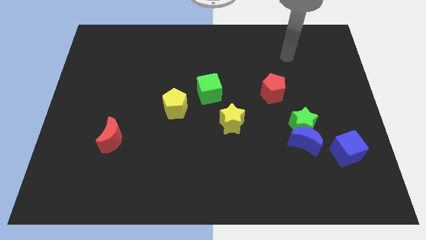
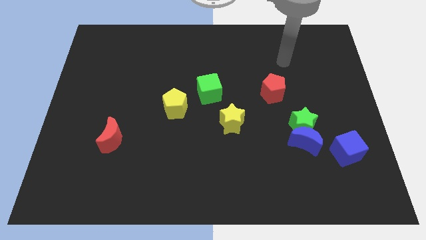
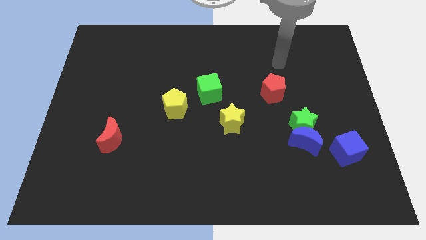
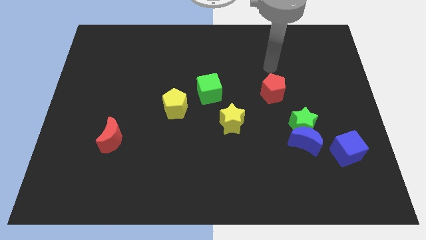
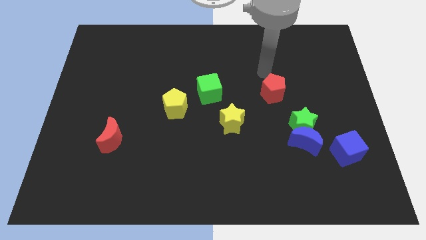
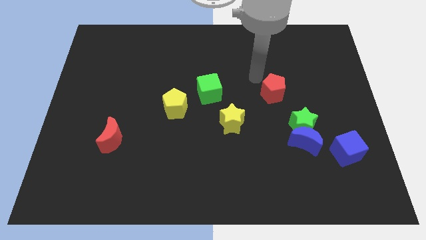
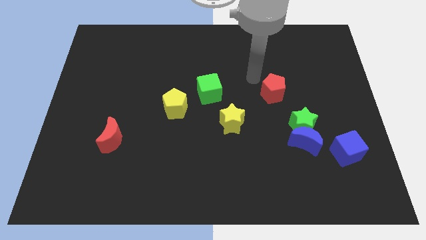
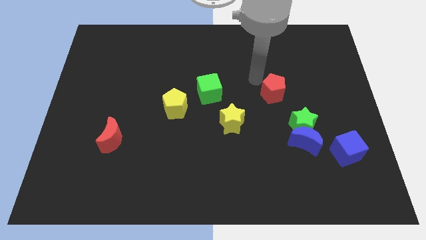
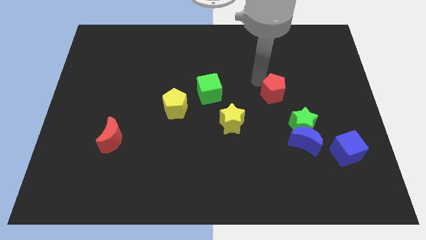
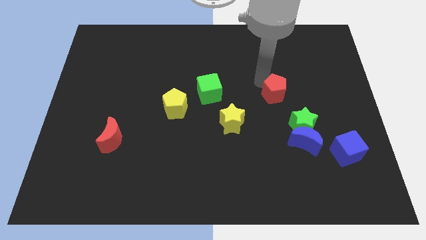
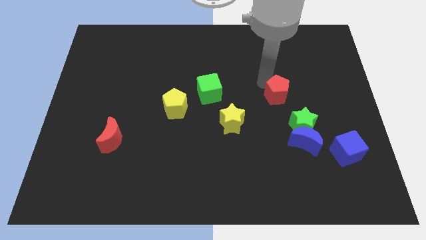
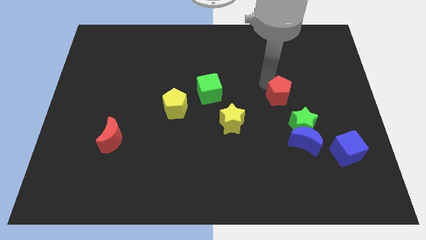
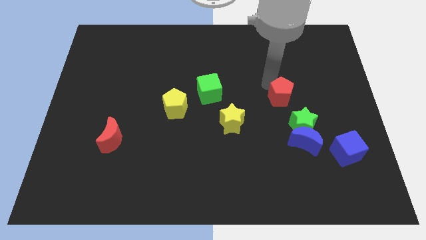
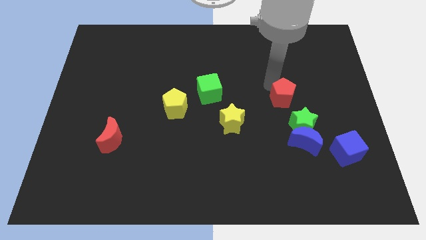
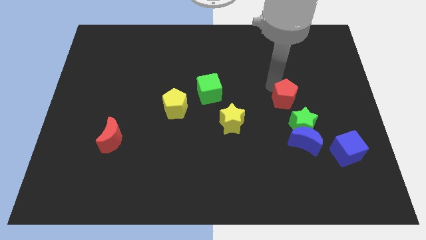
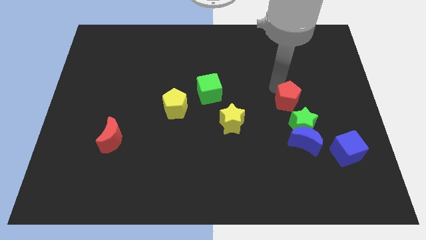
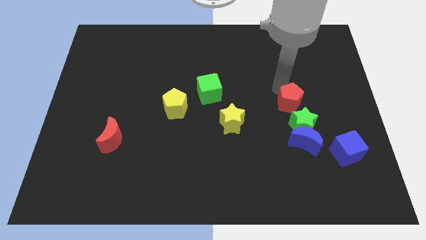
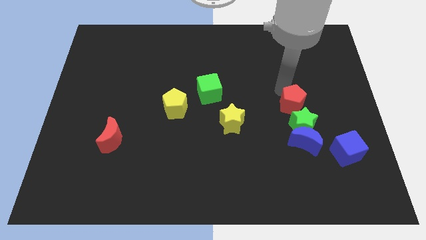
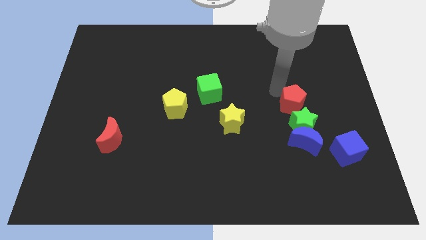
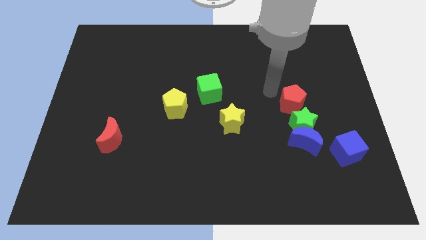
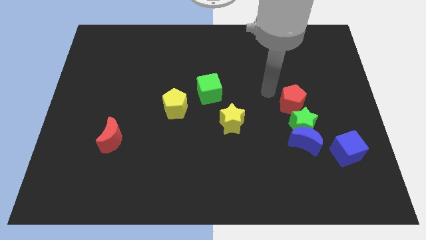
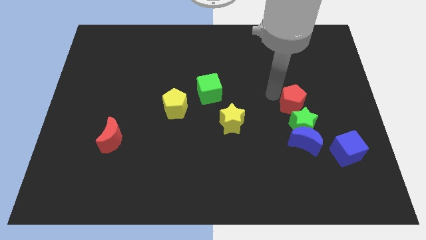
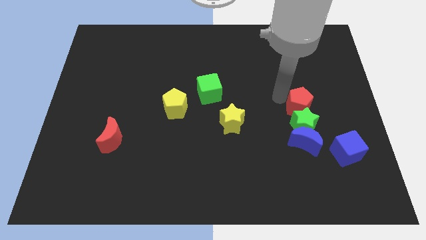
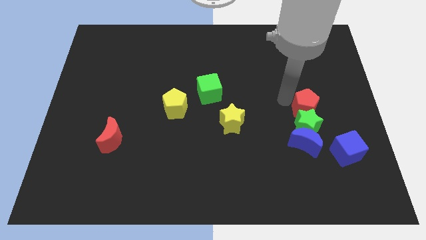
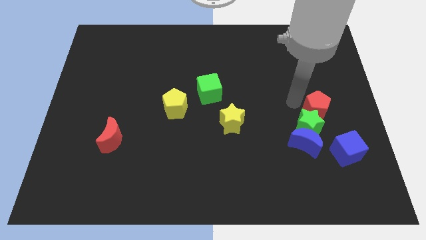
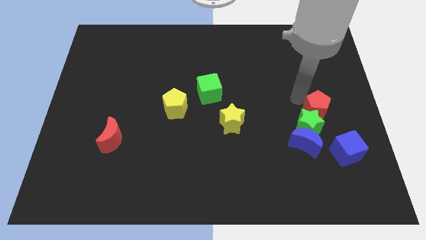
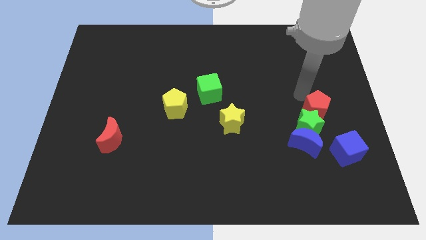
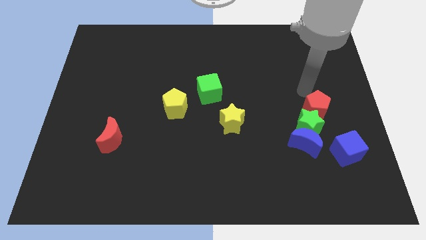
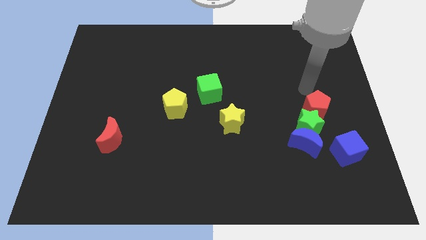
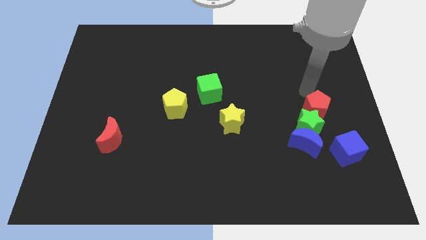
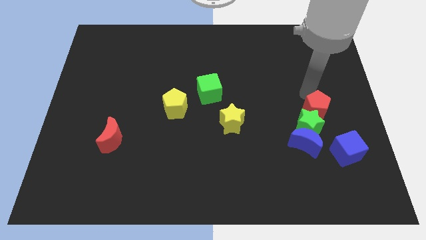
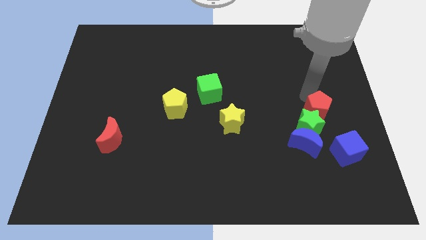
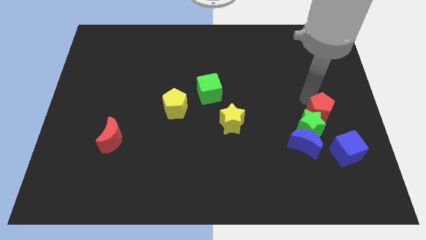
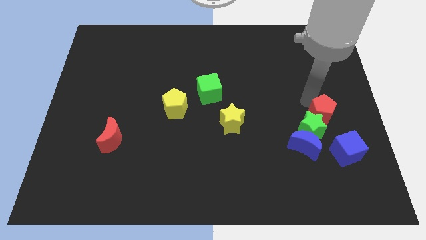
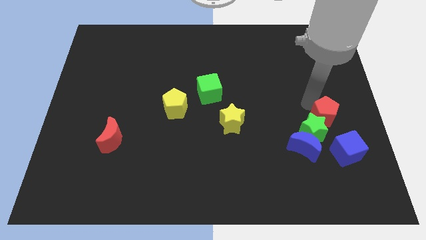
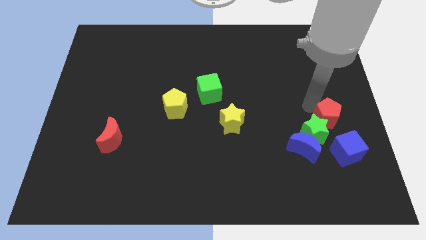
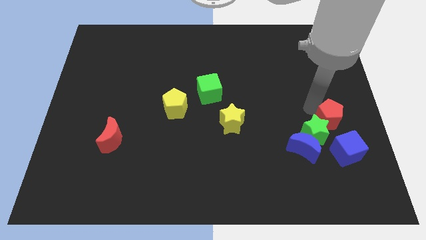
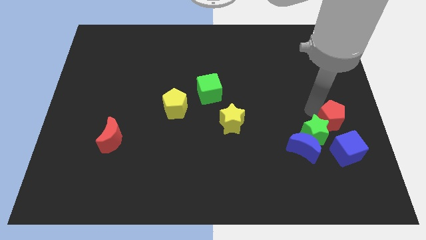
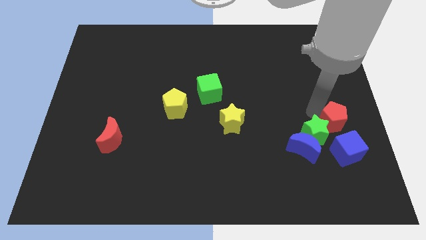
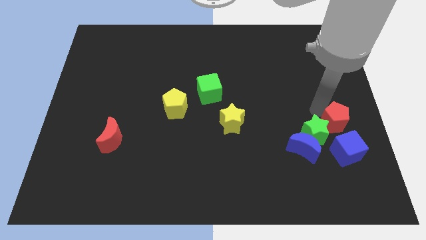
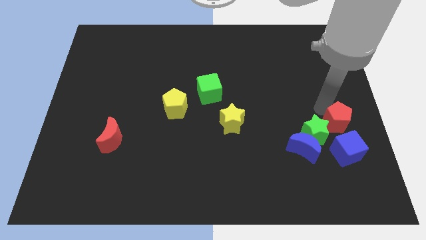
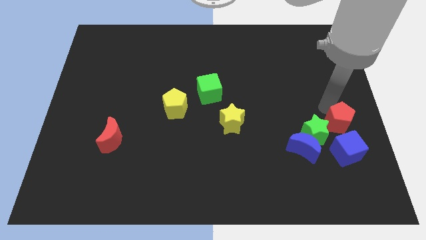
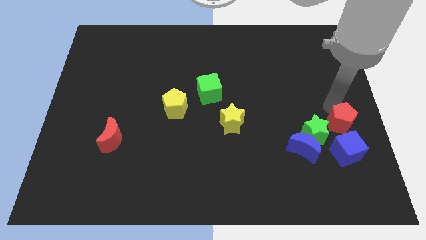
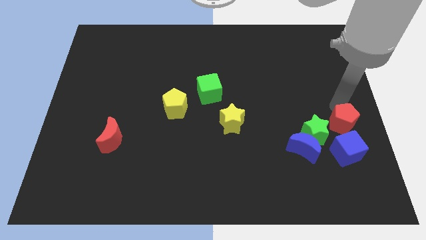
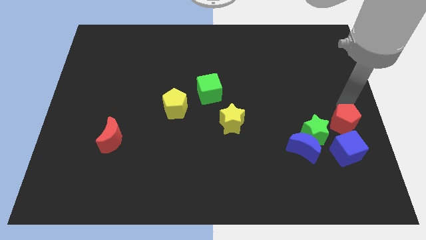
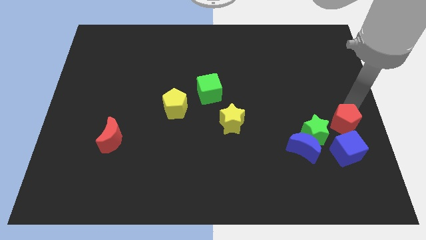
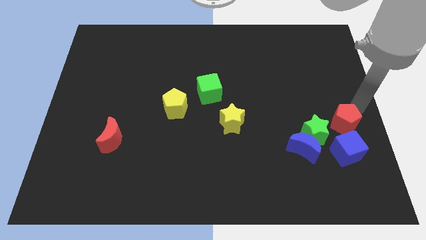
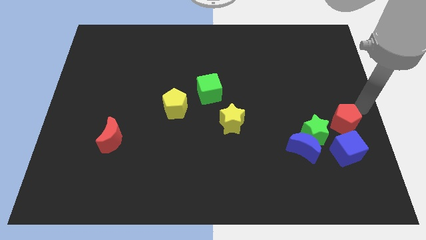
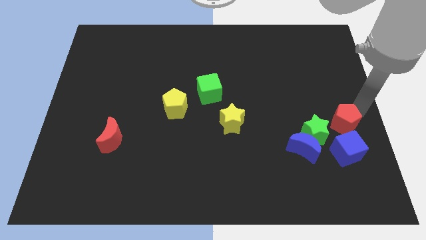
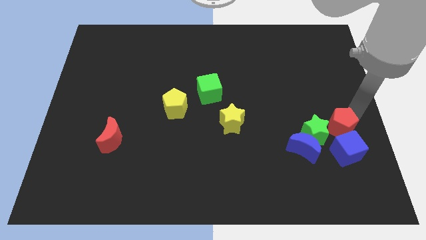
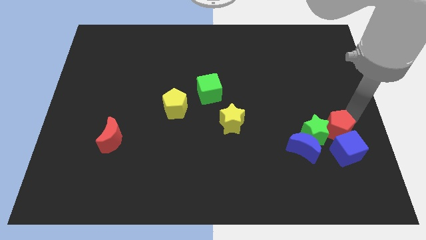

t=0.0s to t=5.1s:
move the red pentagon towards the blue cube

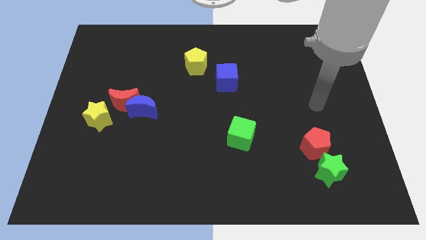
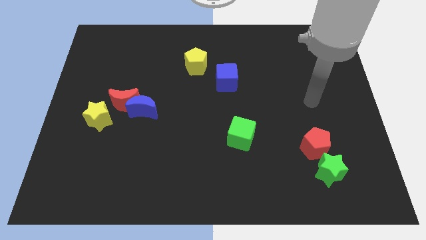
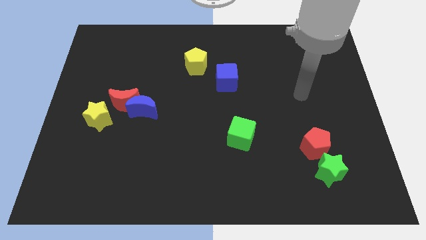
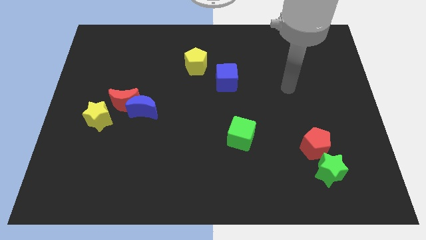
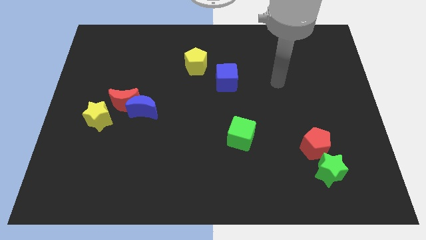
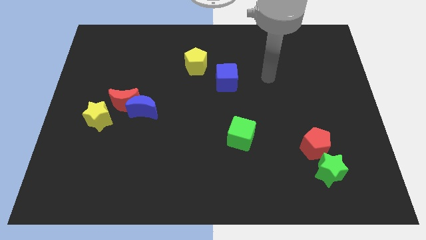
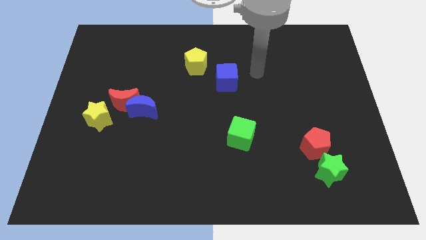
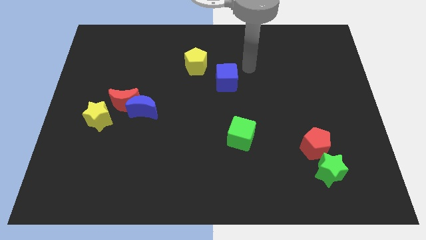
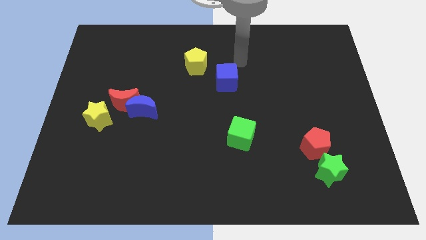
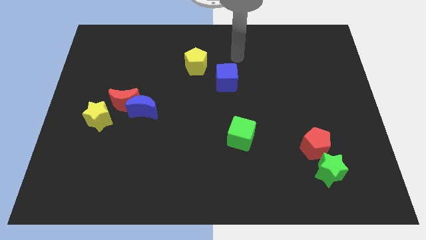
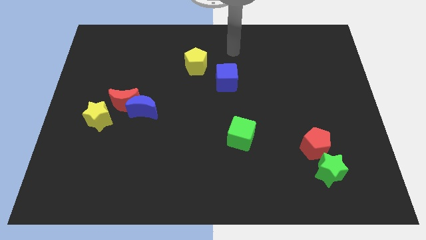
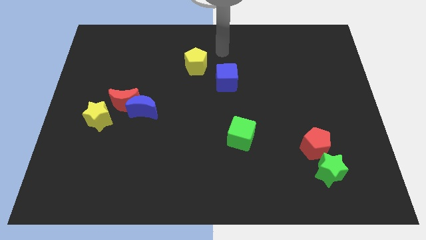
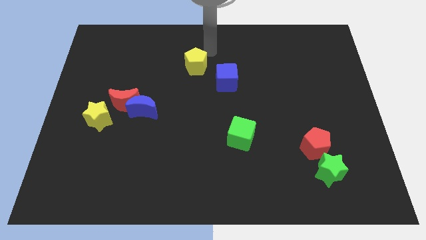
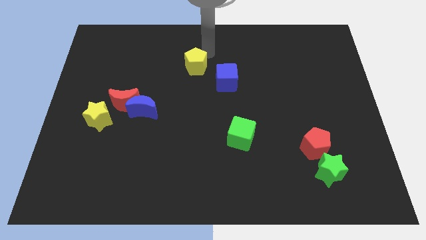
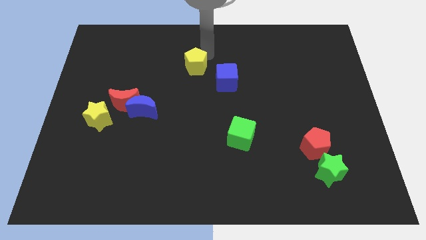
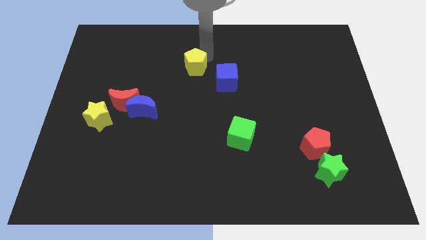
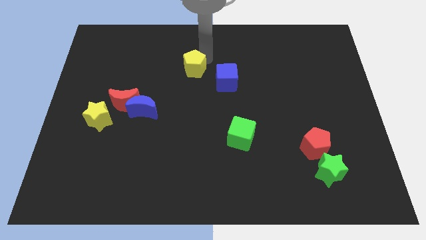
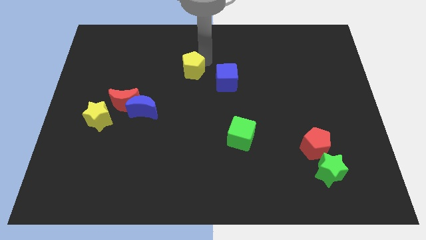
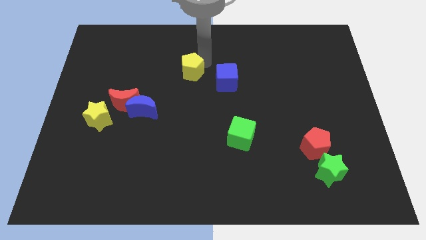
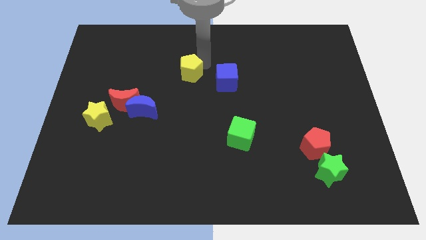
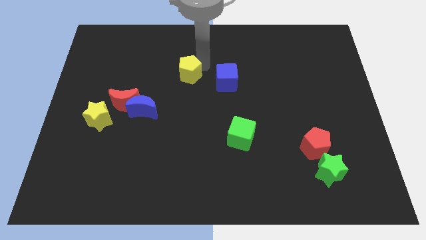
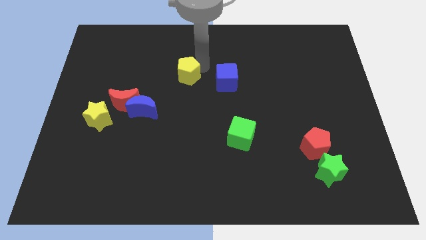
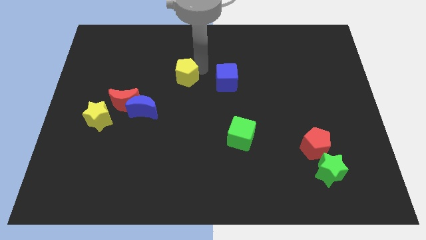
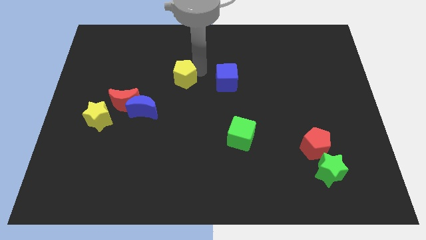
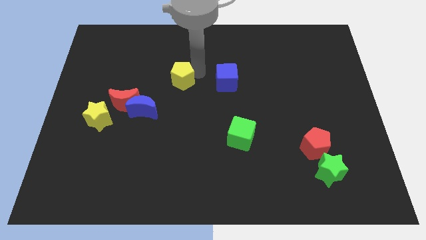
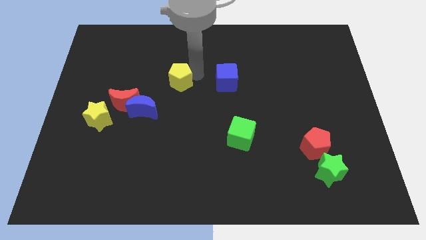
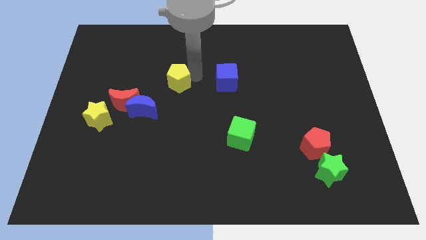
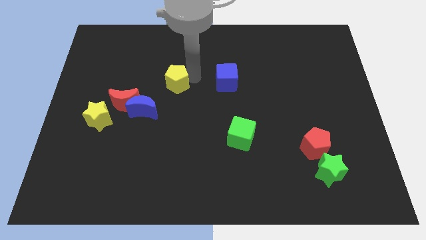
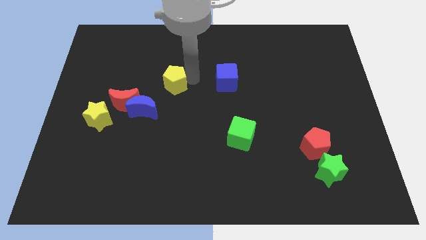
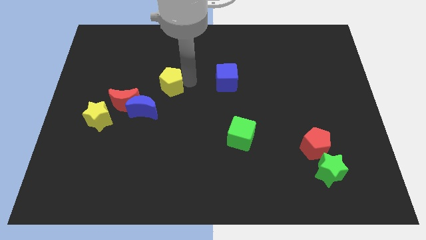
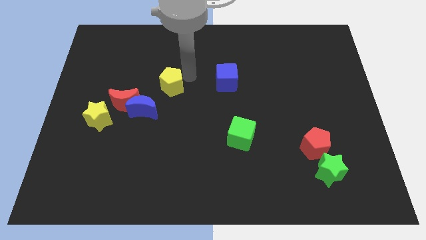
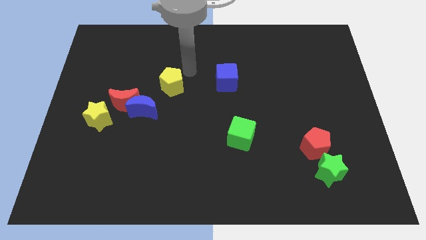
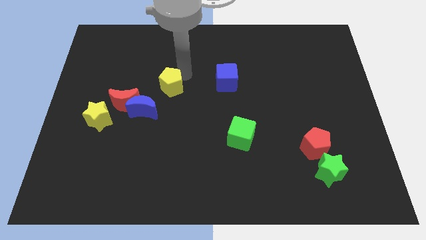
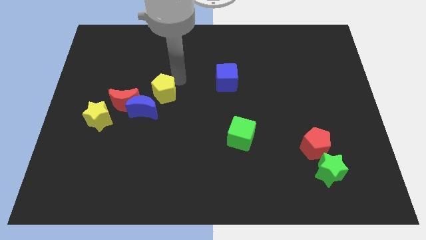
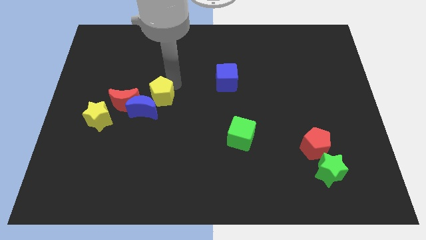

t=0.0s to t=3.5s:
slide the yellow pentagon towards the blue moon
